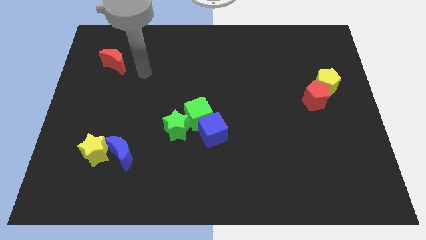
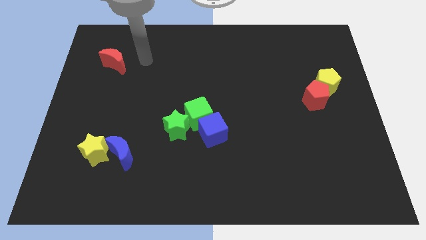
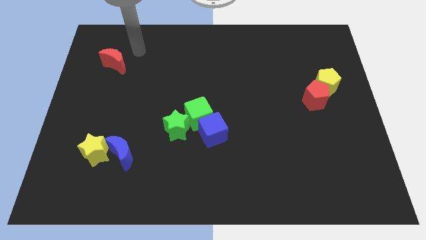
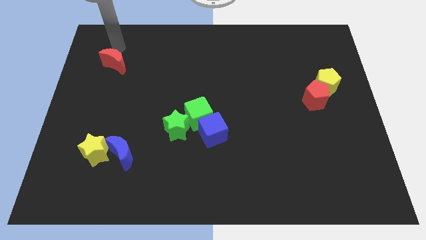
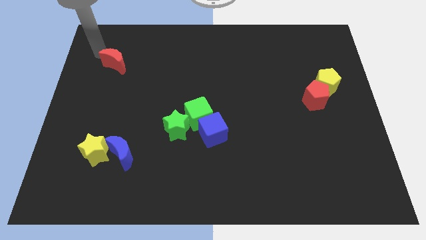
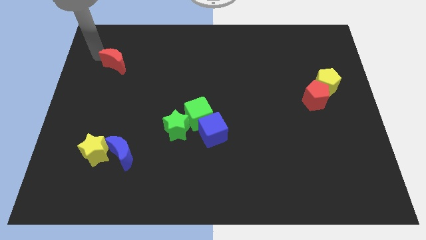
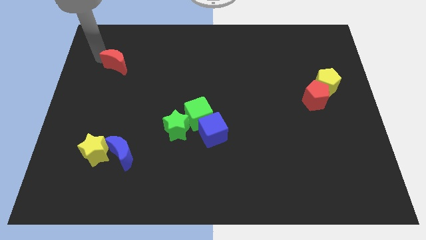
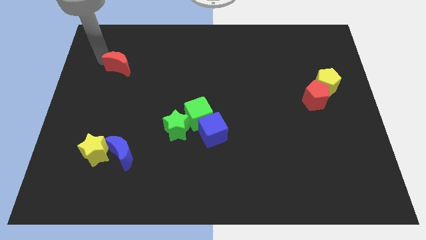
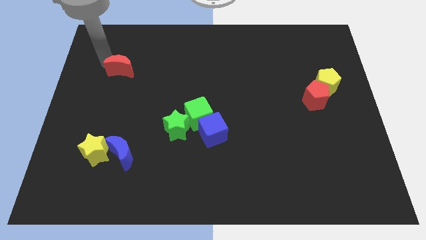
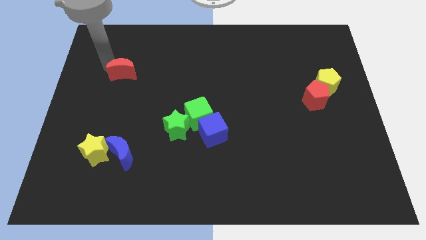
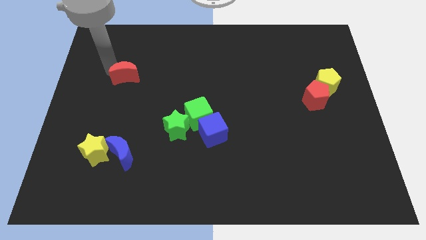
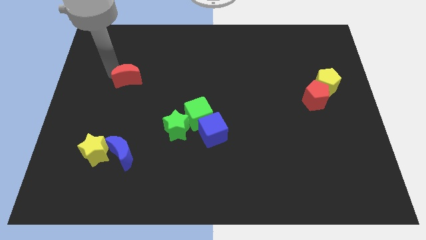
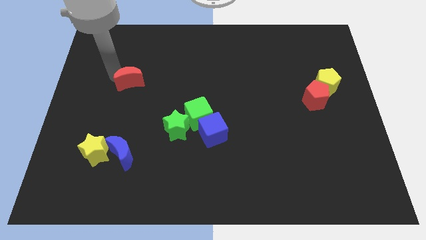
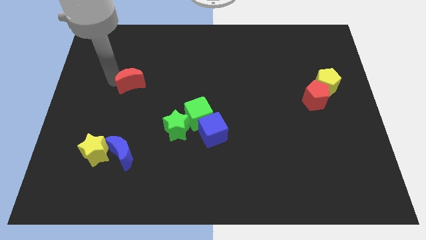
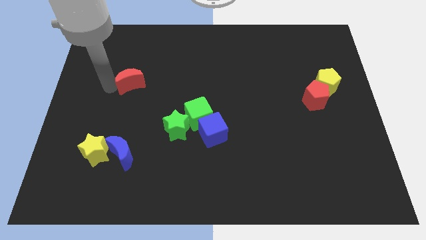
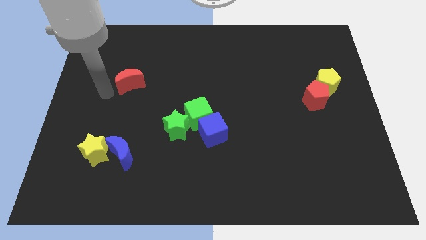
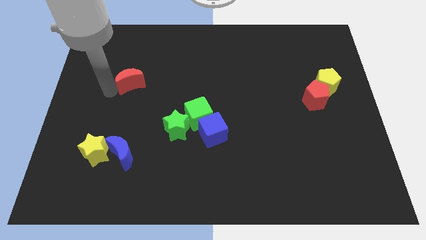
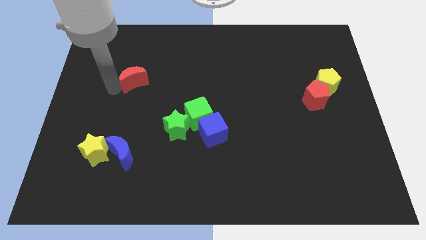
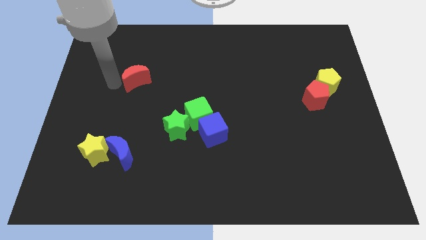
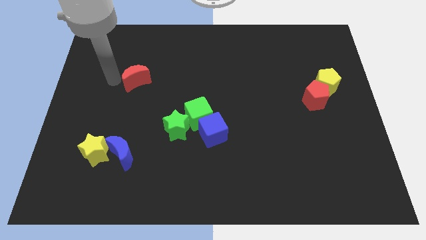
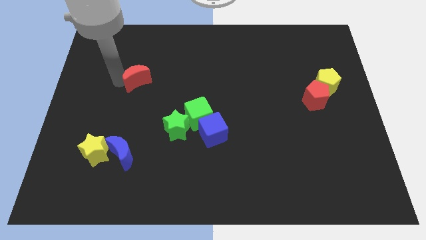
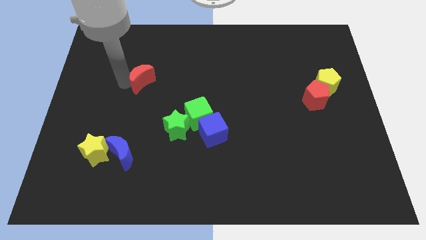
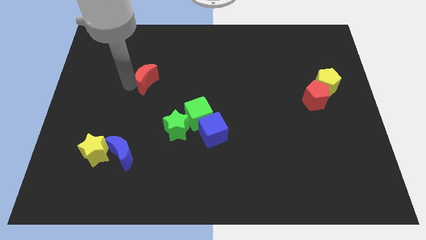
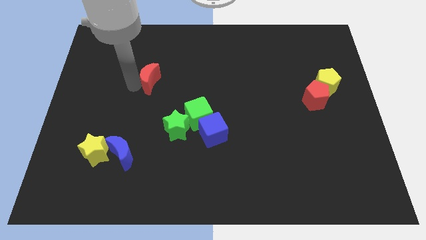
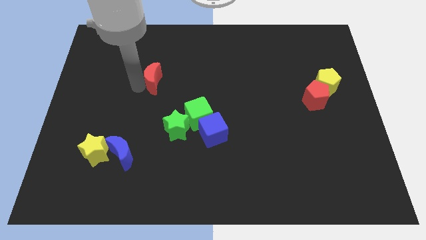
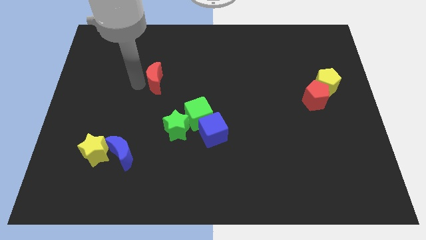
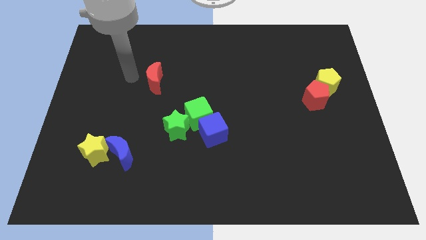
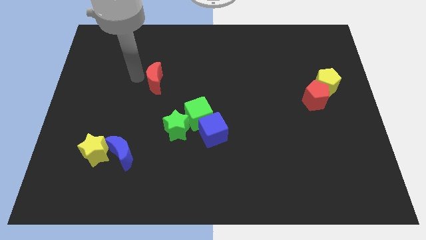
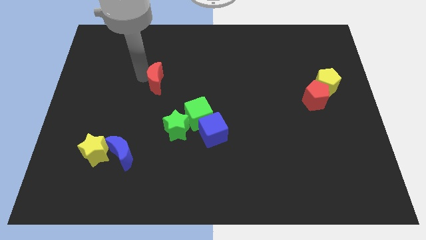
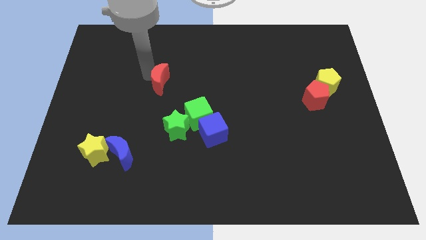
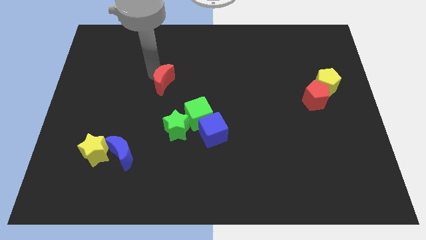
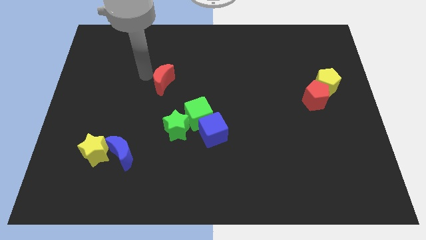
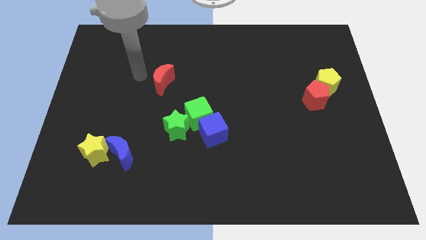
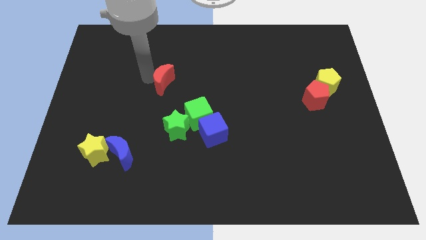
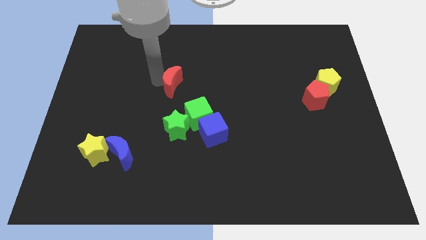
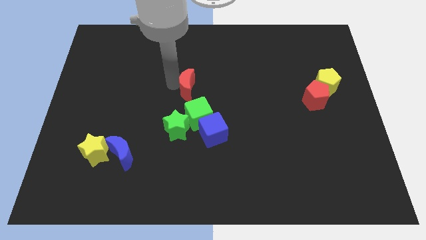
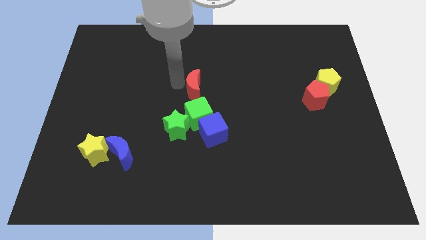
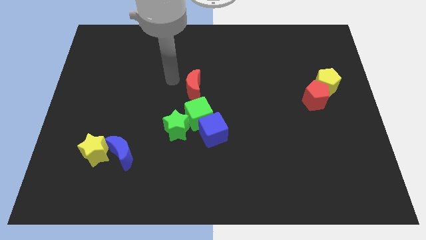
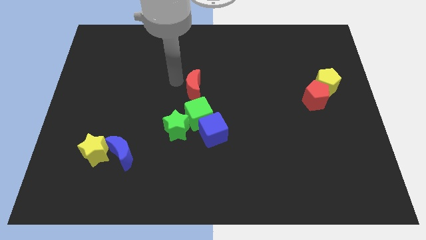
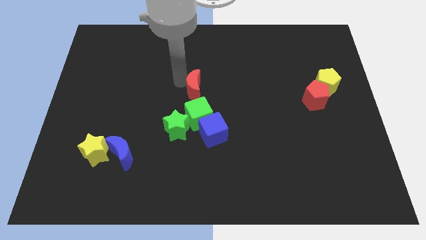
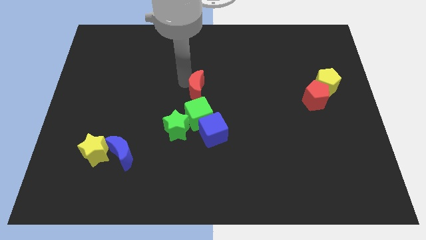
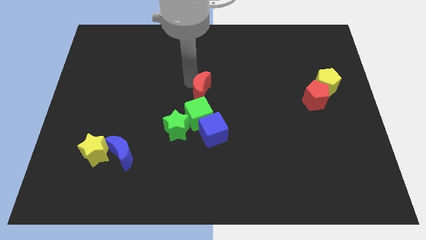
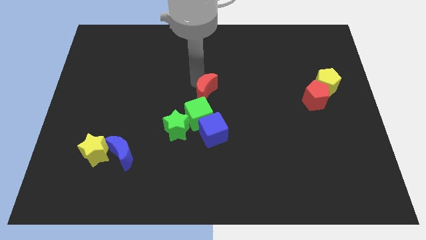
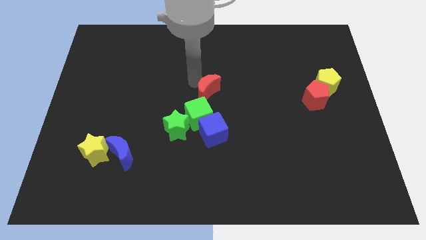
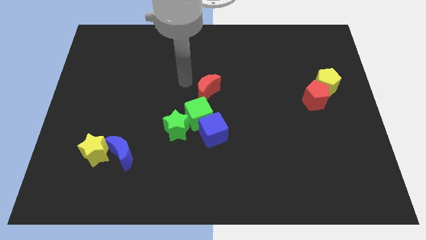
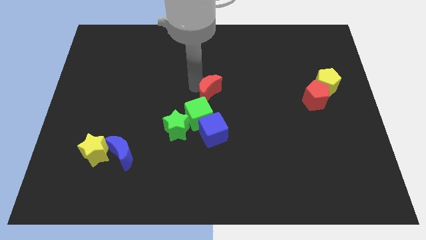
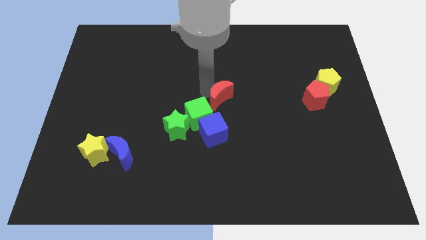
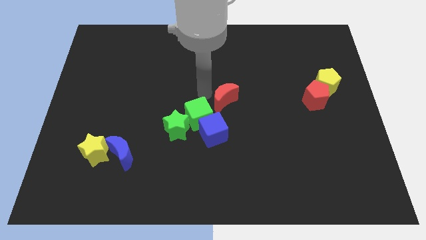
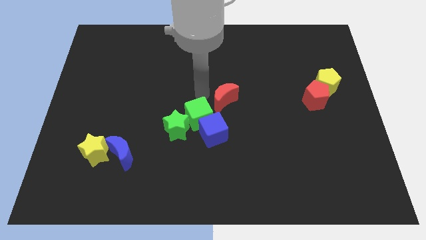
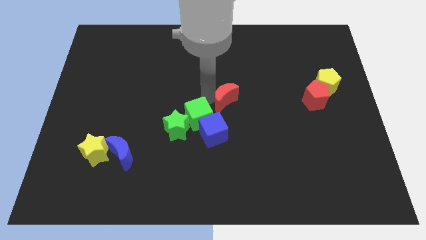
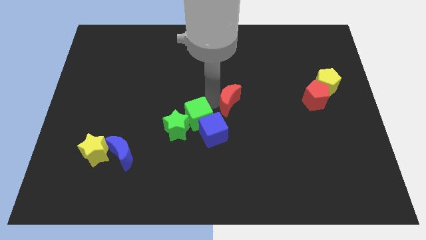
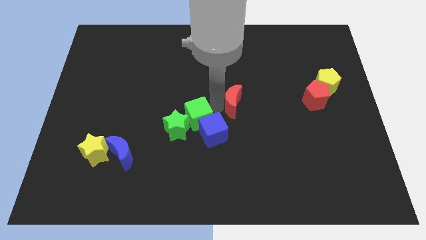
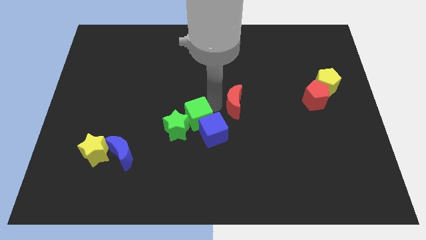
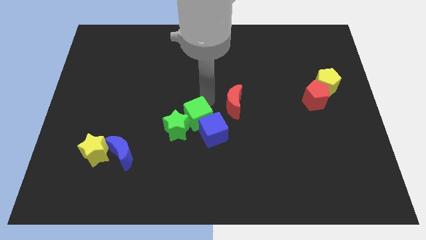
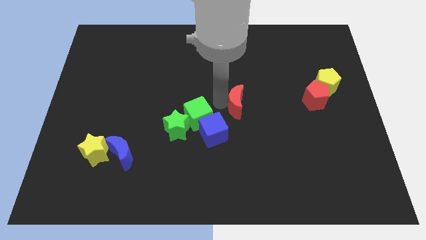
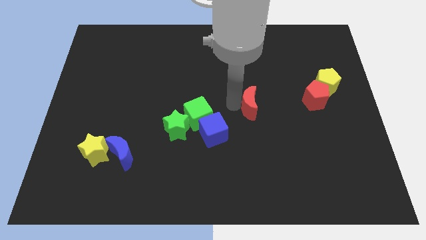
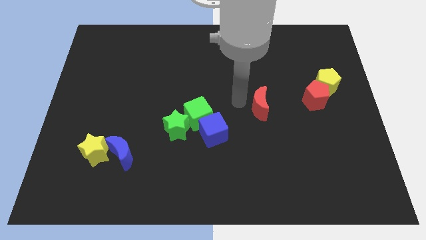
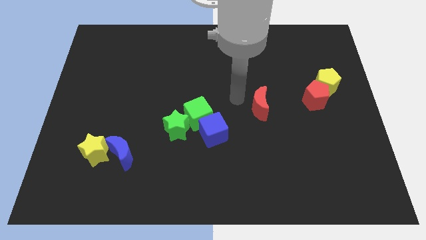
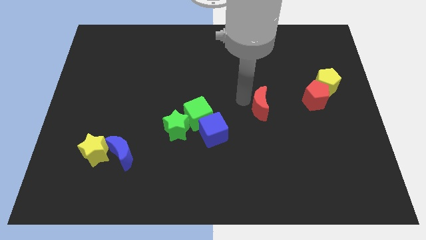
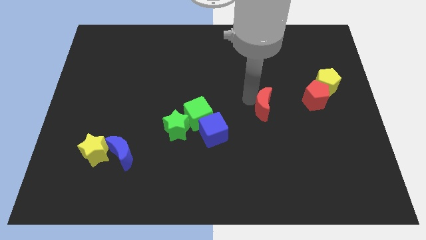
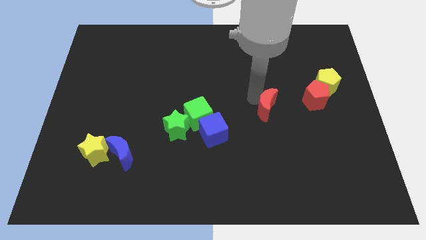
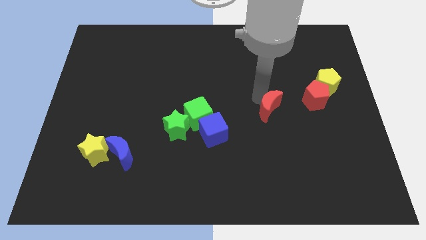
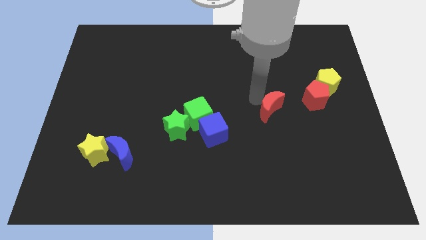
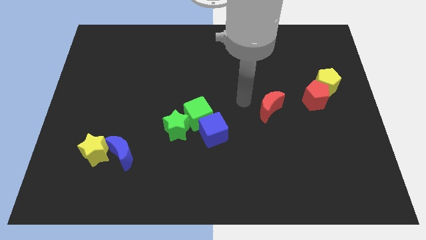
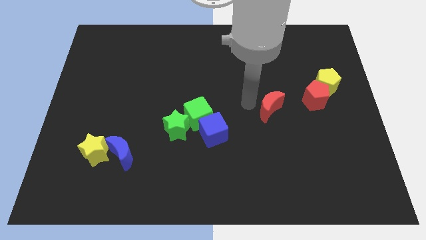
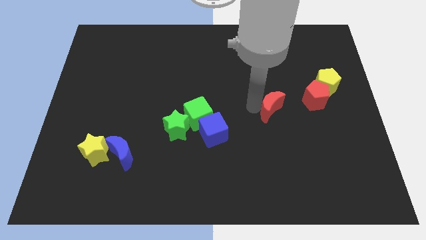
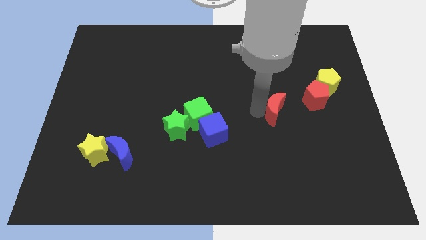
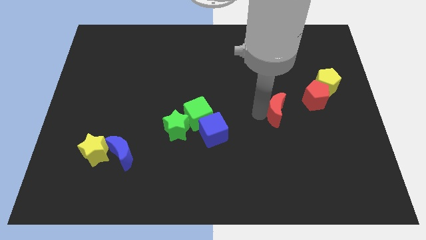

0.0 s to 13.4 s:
put the red moon to the bottom left of the red pentagon

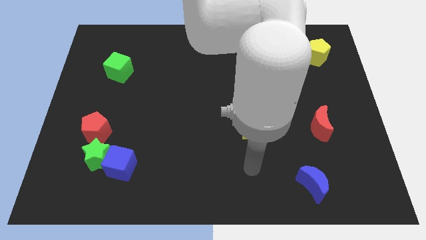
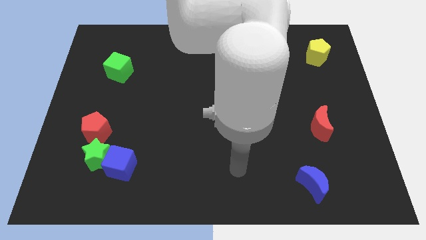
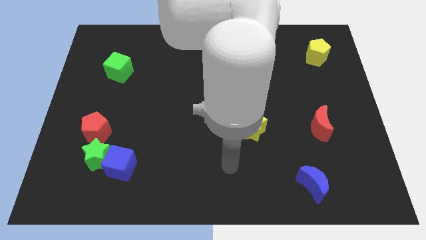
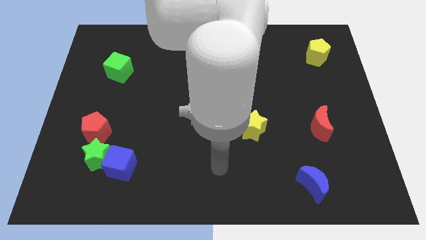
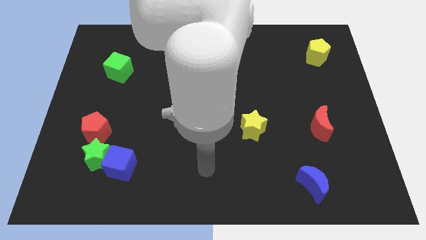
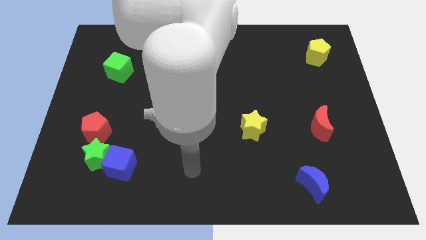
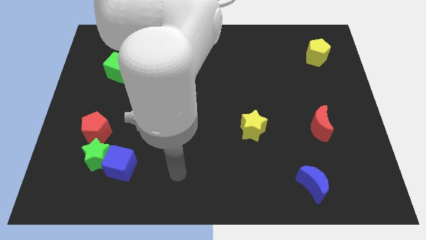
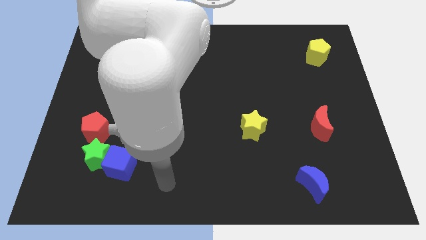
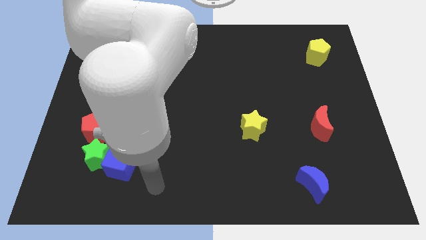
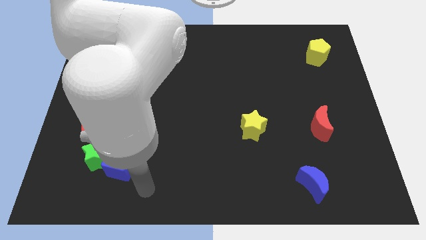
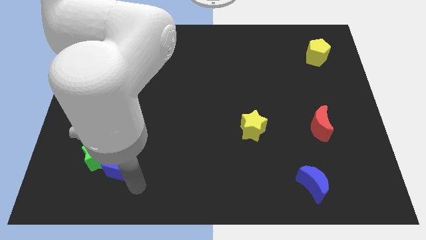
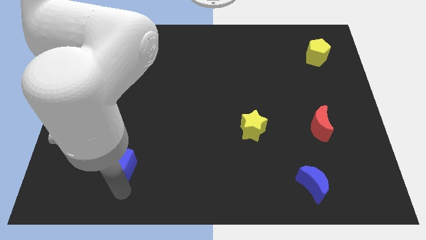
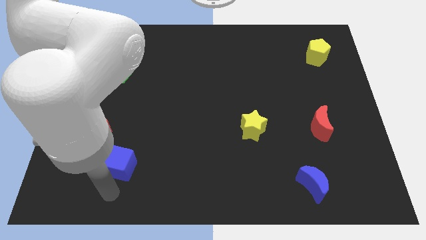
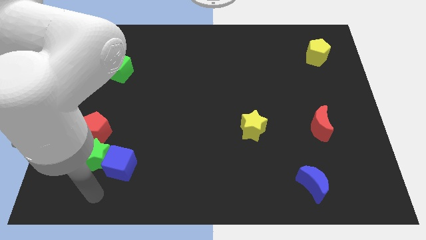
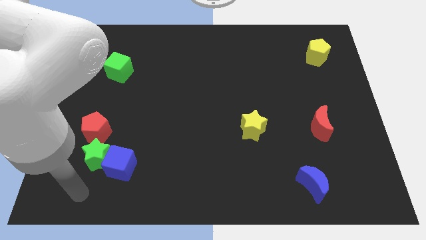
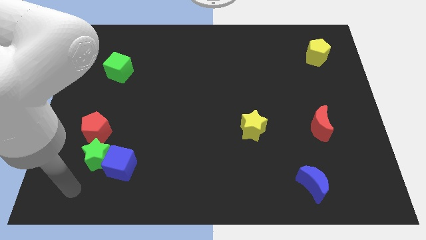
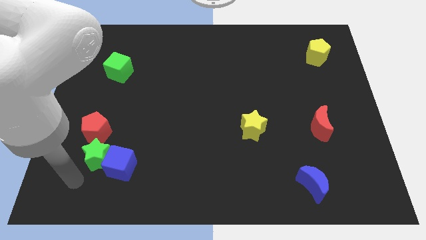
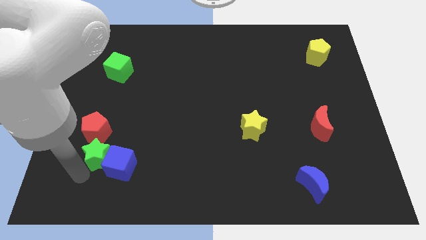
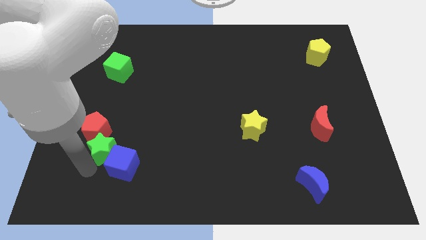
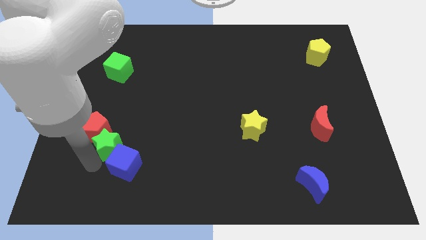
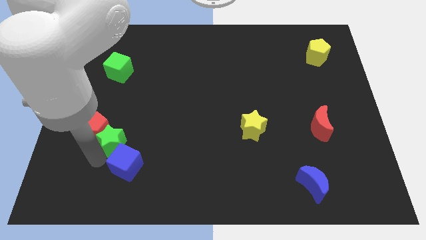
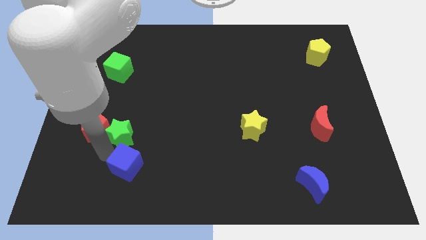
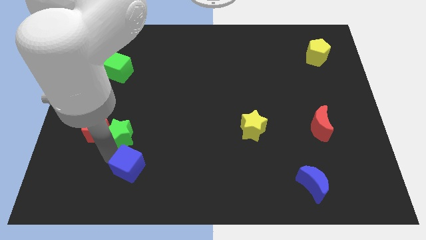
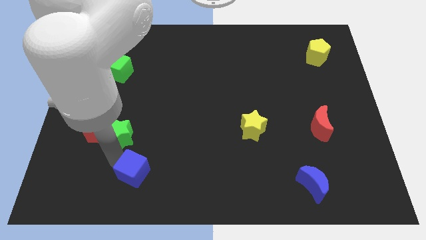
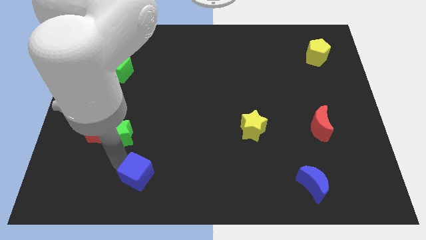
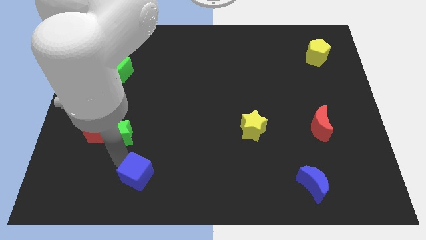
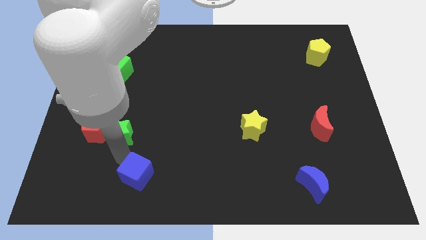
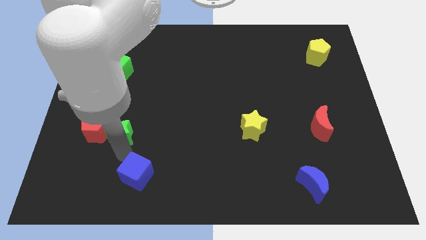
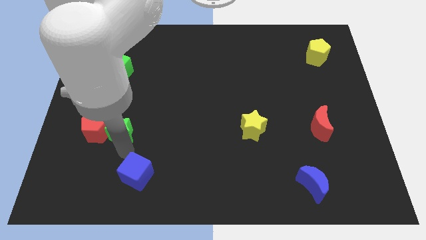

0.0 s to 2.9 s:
slide the green star to the top right of the red pentagon
